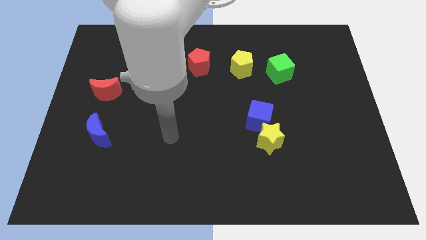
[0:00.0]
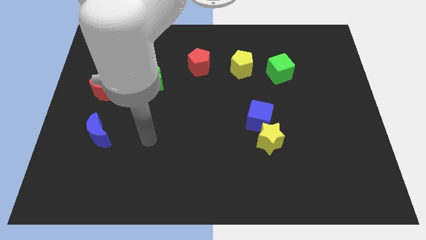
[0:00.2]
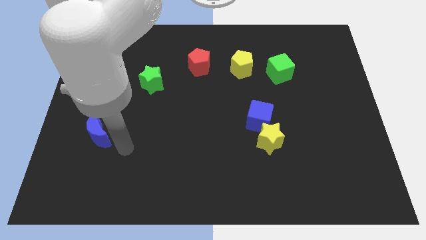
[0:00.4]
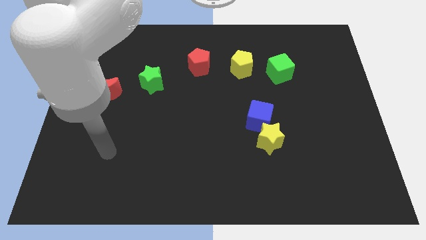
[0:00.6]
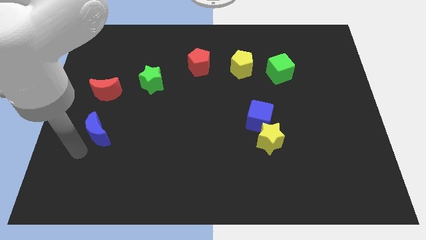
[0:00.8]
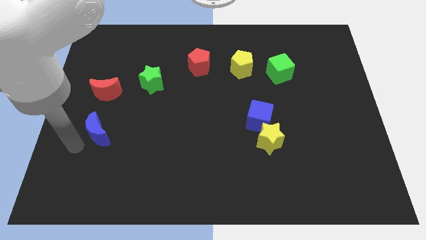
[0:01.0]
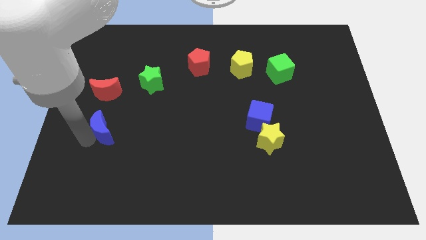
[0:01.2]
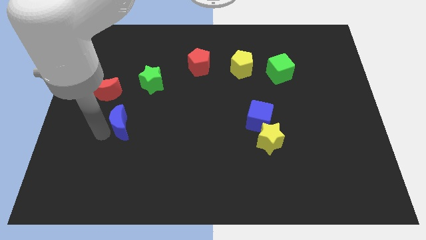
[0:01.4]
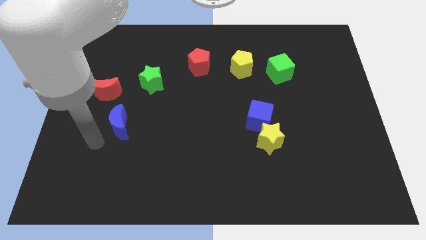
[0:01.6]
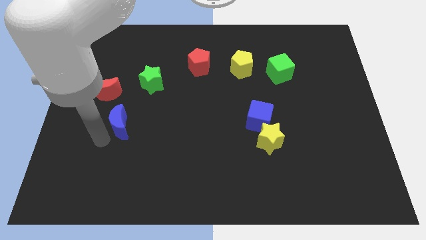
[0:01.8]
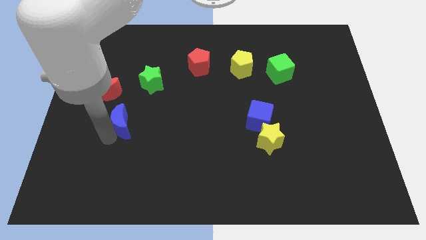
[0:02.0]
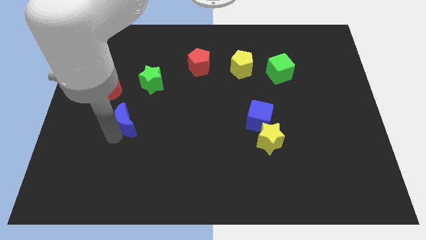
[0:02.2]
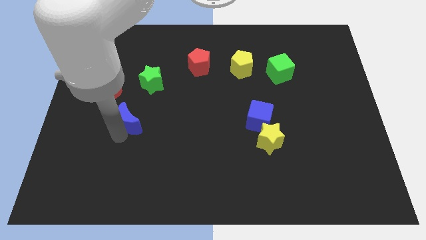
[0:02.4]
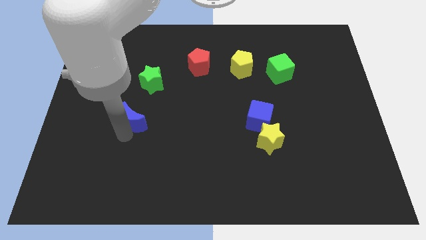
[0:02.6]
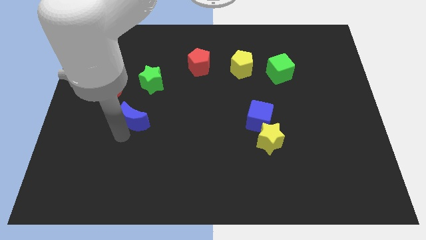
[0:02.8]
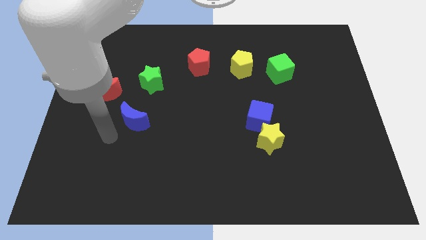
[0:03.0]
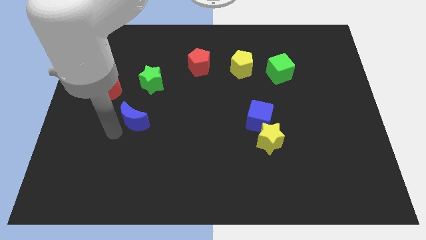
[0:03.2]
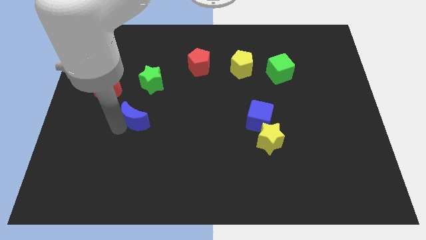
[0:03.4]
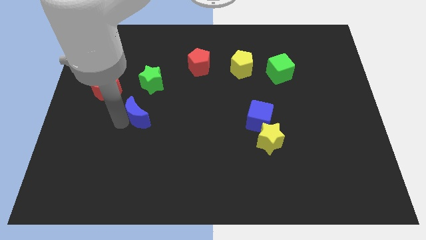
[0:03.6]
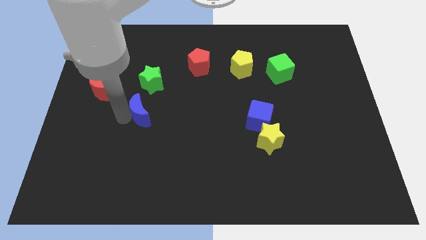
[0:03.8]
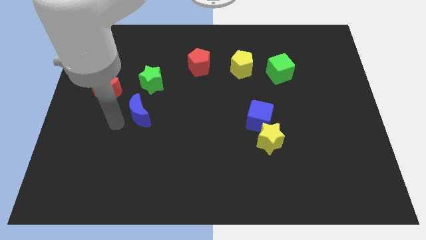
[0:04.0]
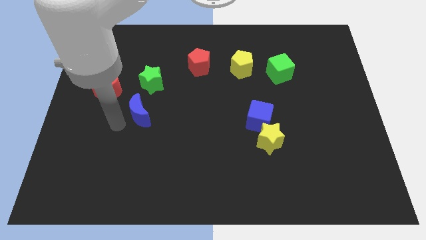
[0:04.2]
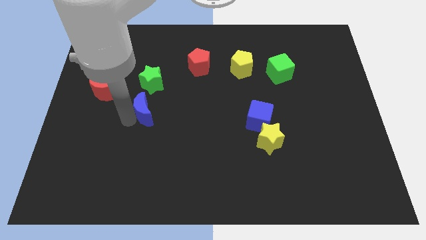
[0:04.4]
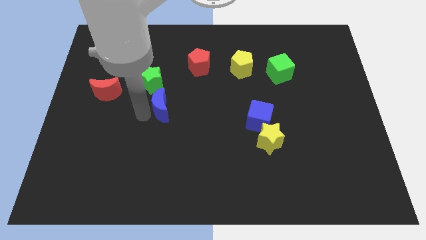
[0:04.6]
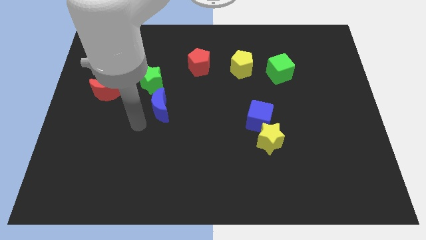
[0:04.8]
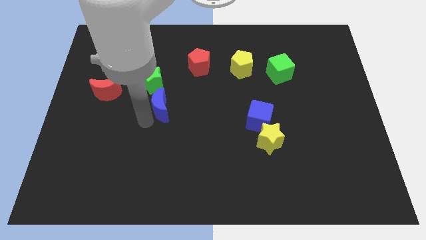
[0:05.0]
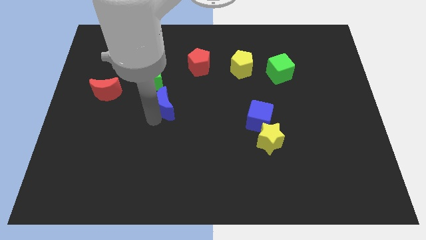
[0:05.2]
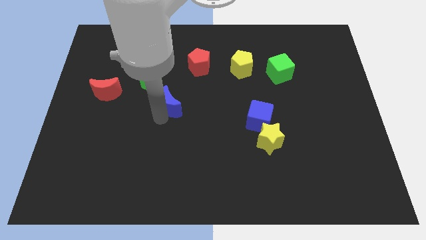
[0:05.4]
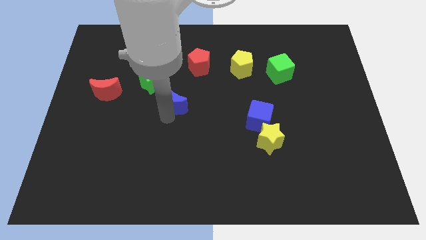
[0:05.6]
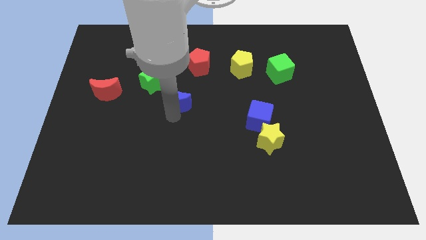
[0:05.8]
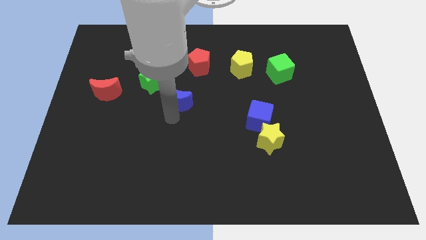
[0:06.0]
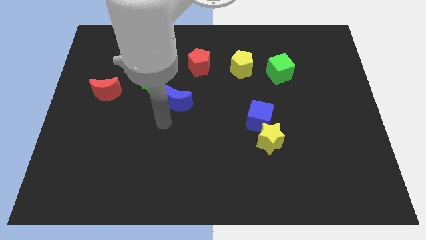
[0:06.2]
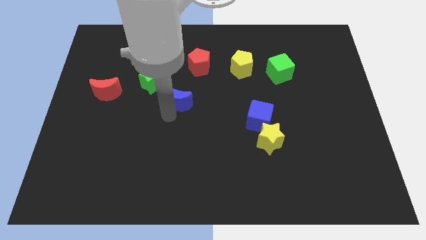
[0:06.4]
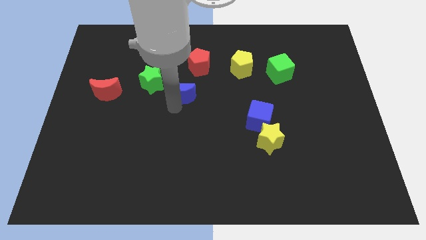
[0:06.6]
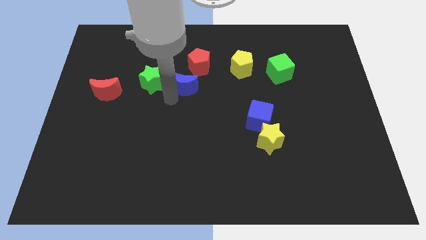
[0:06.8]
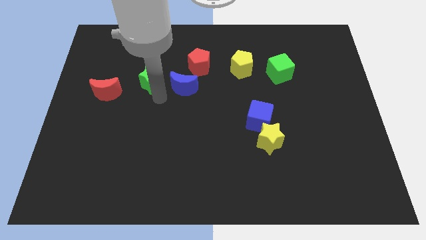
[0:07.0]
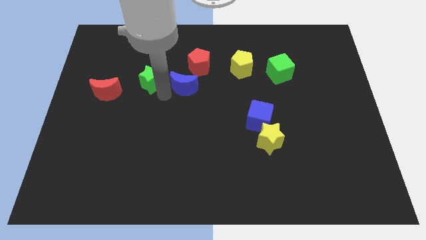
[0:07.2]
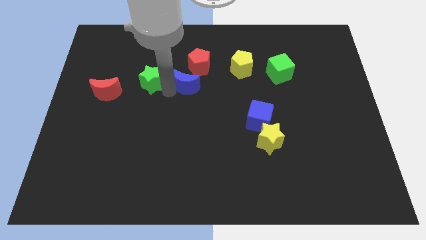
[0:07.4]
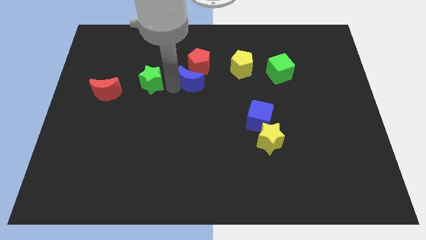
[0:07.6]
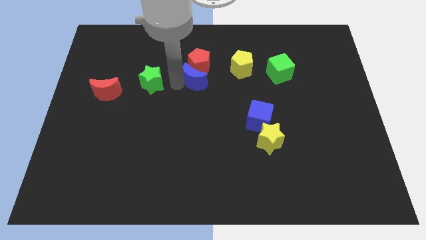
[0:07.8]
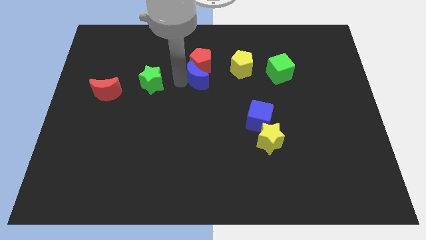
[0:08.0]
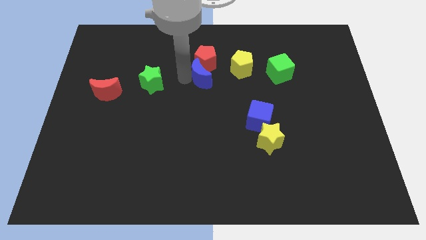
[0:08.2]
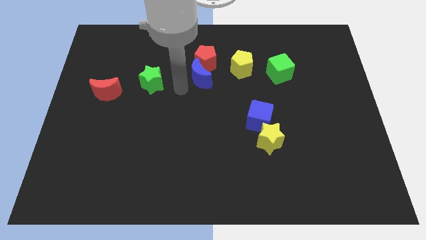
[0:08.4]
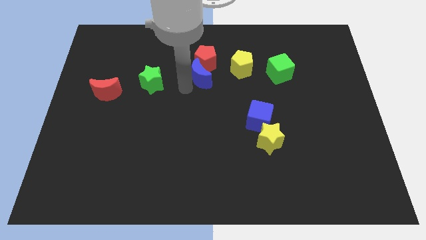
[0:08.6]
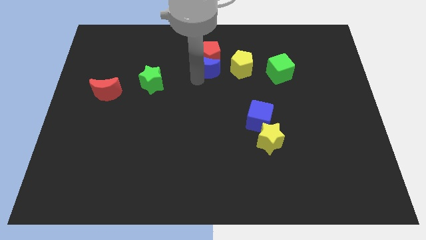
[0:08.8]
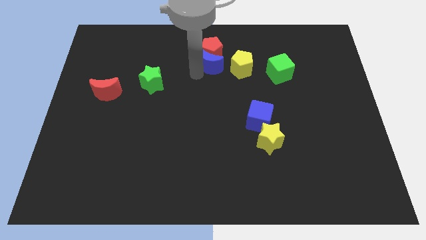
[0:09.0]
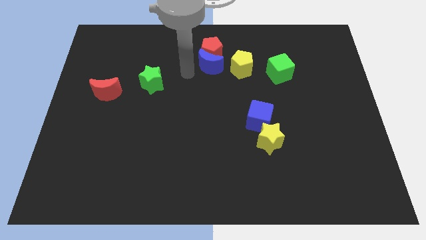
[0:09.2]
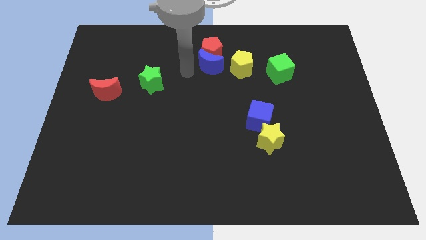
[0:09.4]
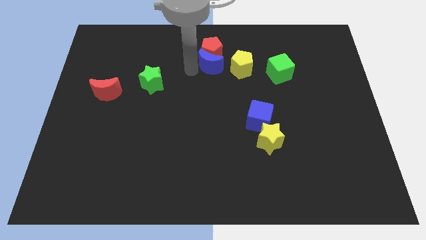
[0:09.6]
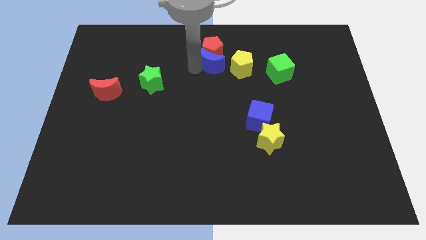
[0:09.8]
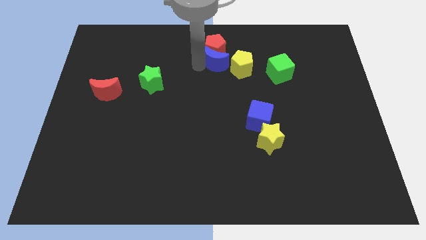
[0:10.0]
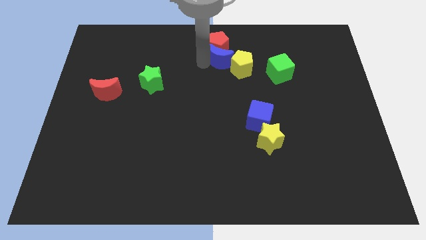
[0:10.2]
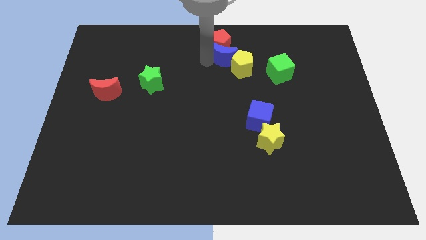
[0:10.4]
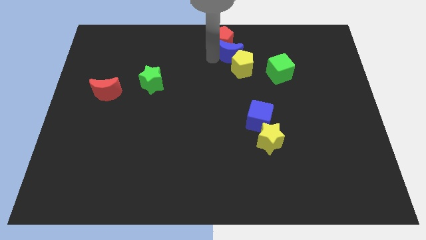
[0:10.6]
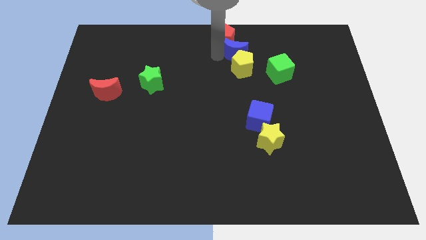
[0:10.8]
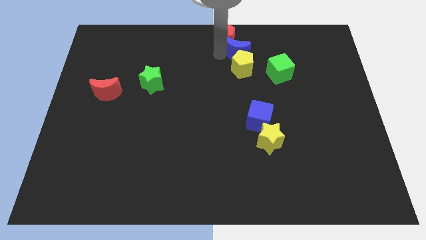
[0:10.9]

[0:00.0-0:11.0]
put the blue moon to the top left of the green cube

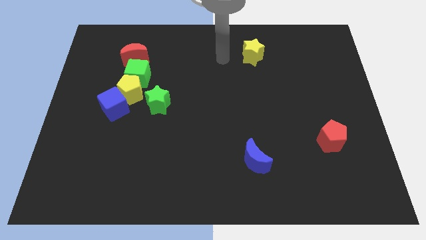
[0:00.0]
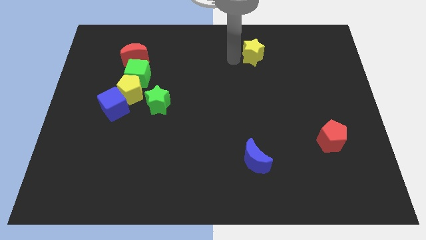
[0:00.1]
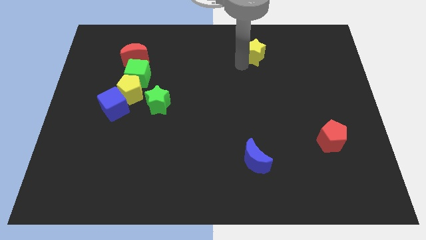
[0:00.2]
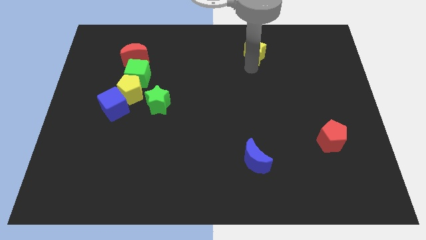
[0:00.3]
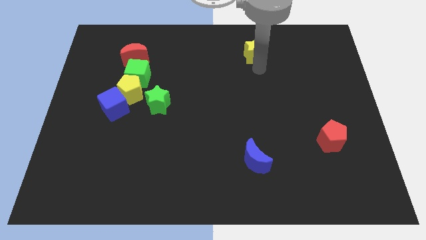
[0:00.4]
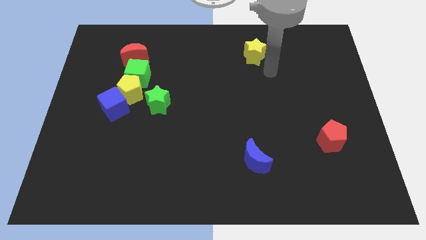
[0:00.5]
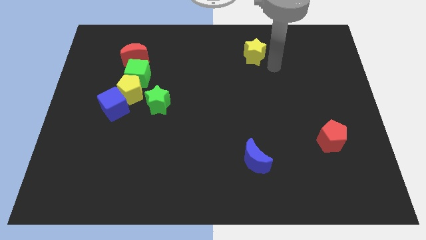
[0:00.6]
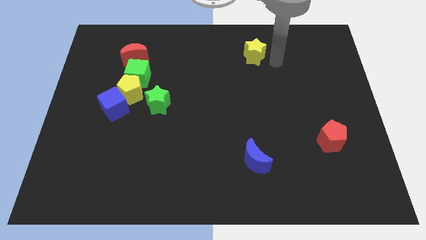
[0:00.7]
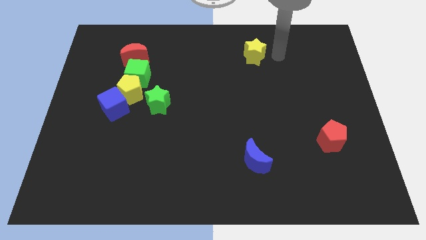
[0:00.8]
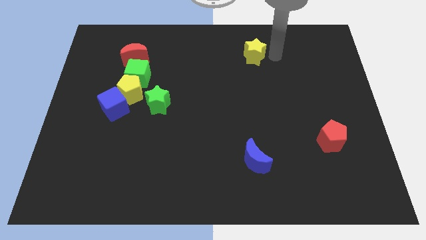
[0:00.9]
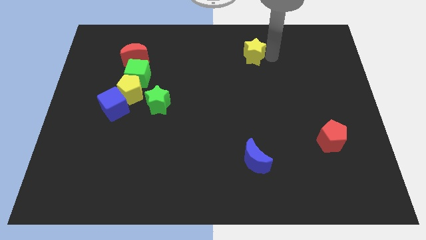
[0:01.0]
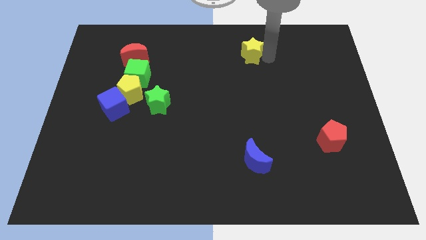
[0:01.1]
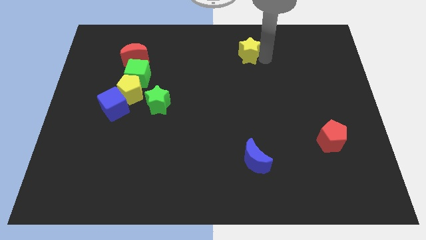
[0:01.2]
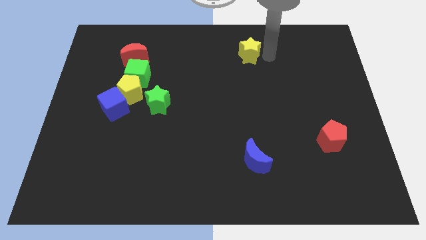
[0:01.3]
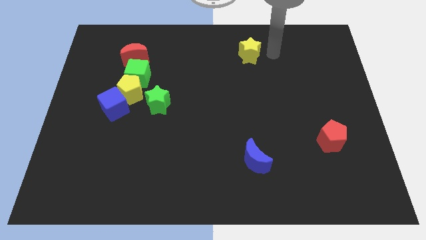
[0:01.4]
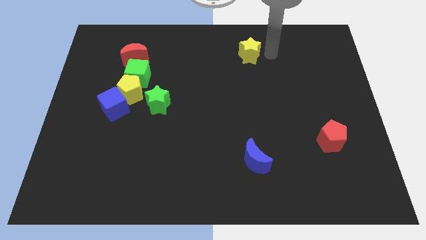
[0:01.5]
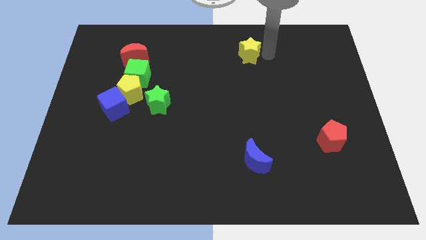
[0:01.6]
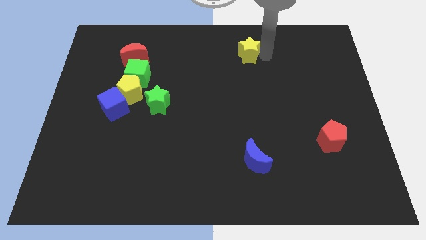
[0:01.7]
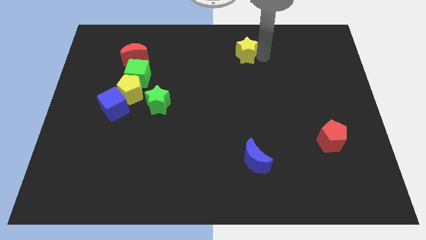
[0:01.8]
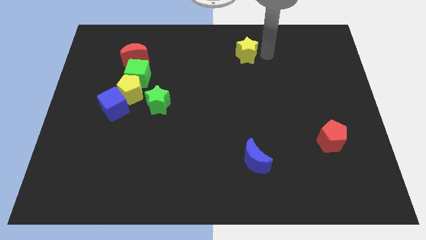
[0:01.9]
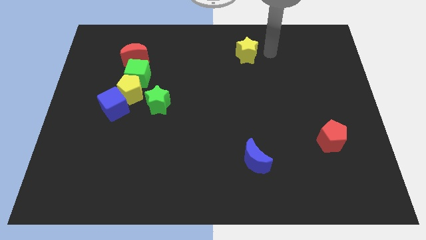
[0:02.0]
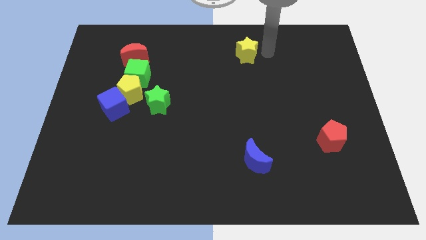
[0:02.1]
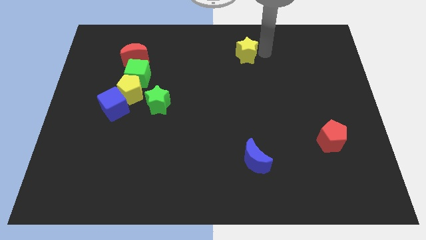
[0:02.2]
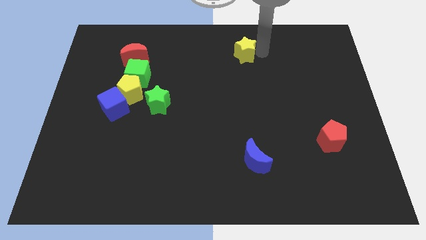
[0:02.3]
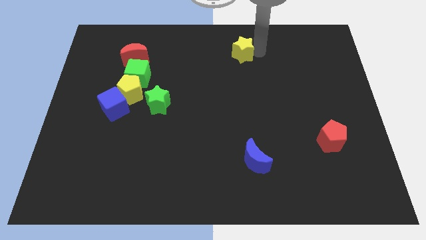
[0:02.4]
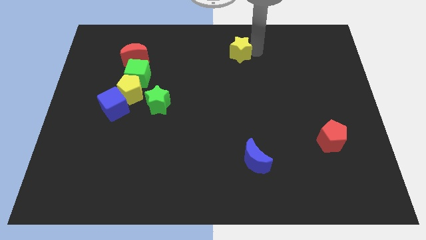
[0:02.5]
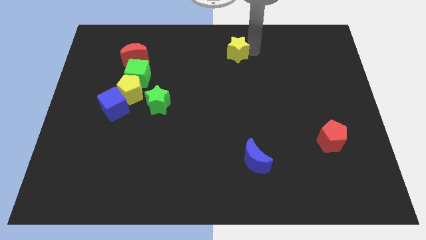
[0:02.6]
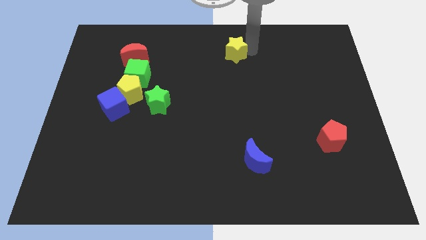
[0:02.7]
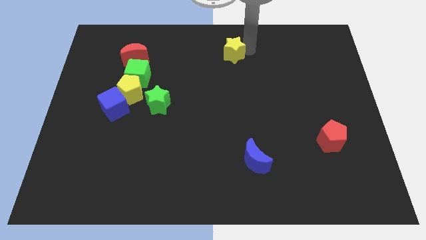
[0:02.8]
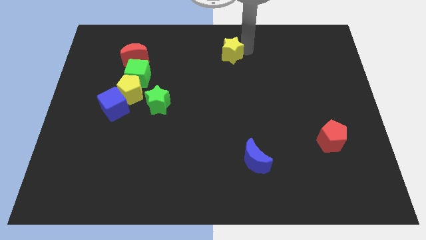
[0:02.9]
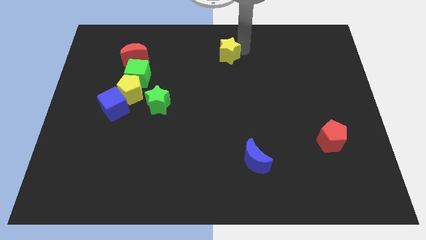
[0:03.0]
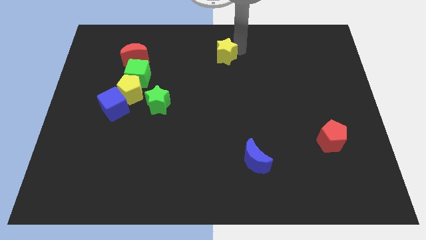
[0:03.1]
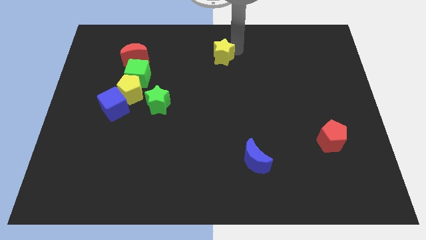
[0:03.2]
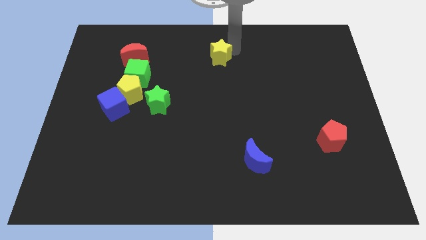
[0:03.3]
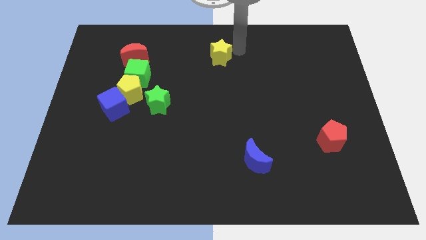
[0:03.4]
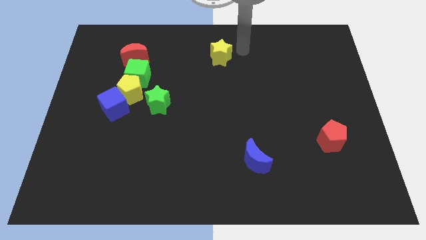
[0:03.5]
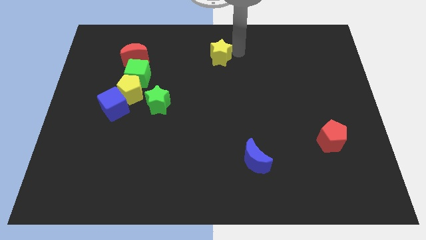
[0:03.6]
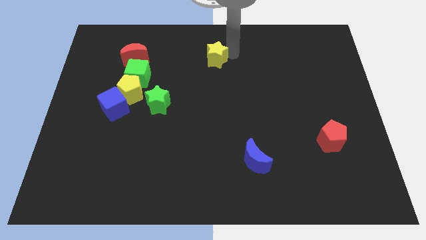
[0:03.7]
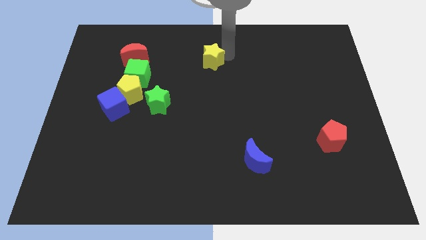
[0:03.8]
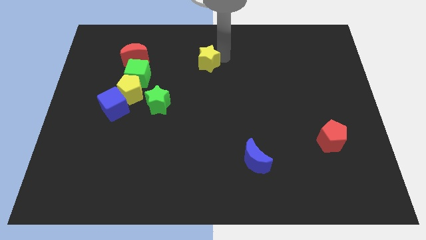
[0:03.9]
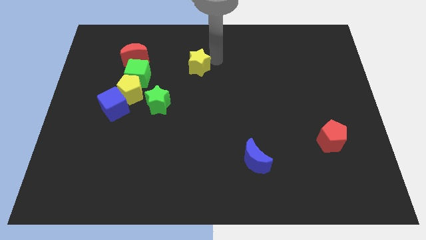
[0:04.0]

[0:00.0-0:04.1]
move the yellow star right of the green cube
